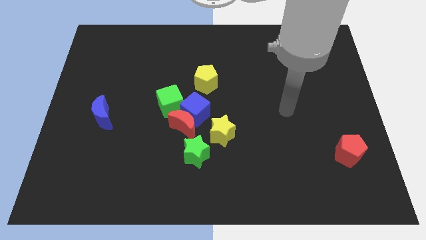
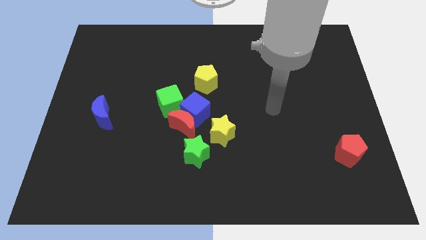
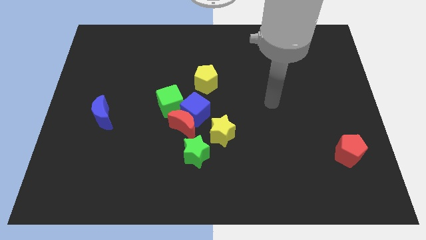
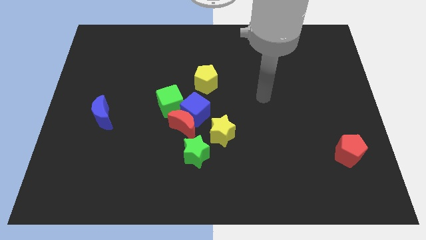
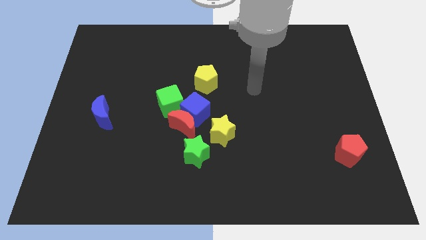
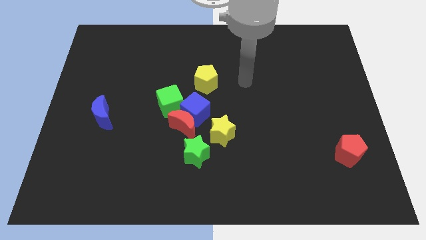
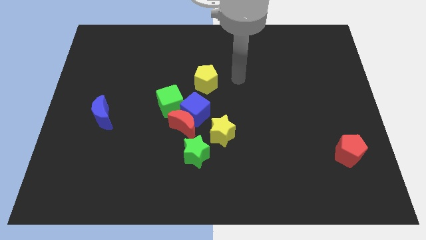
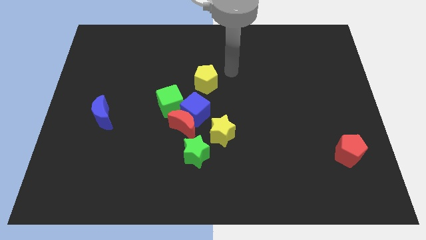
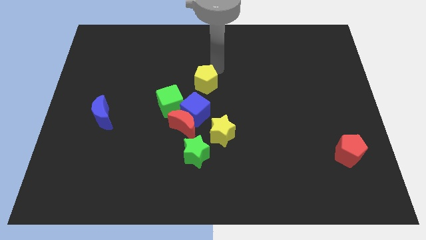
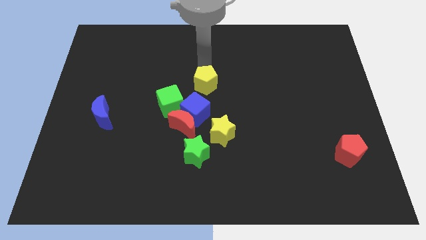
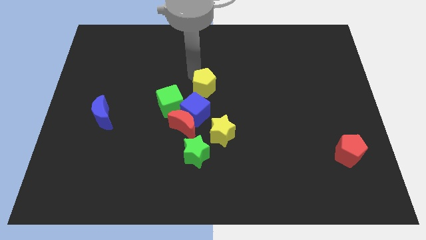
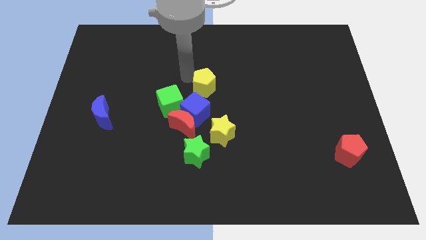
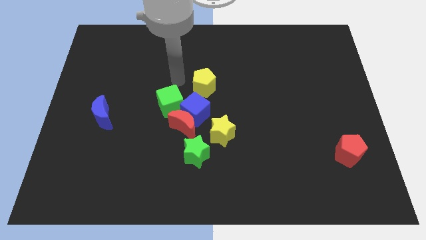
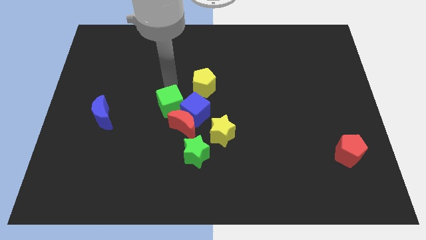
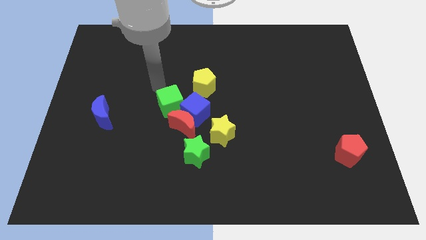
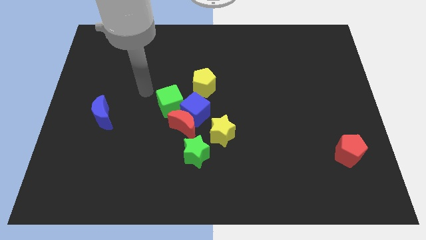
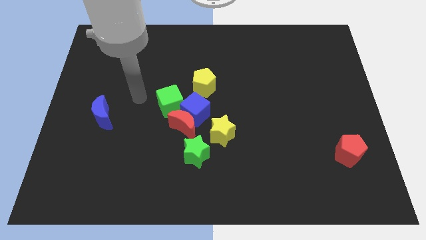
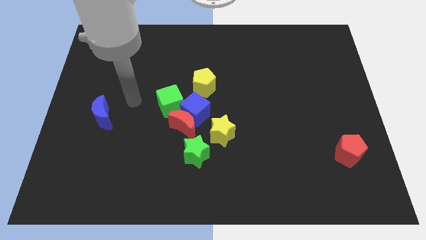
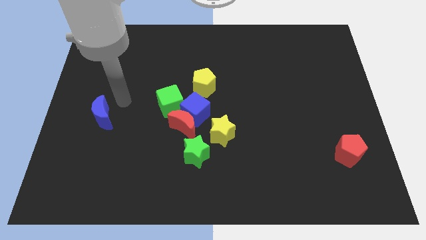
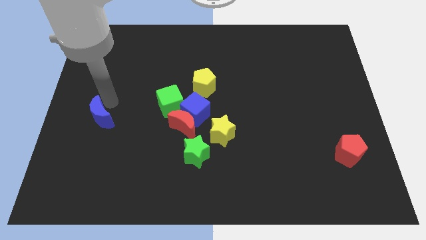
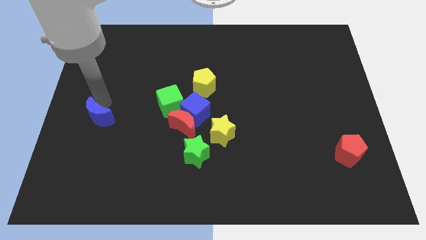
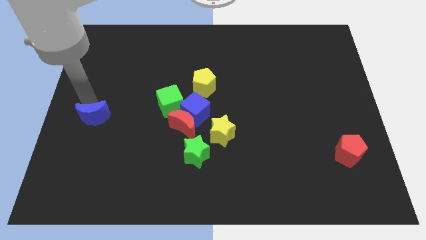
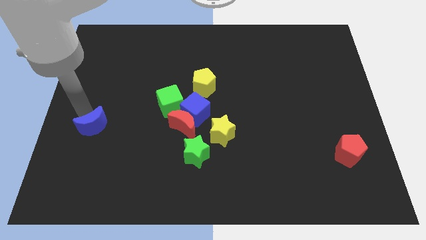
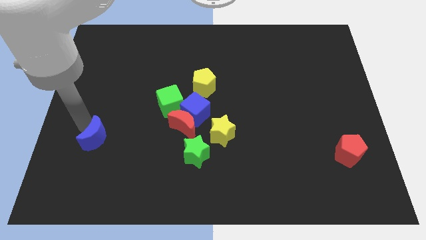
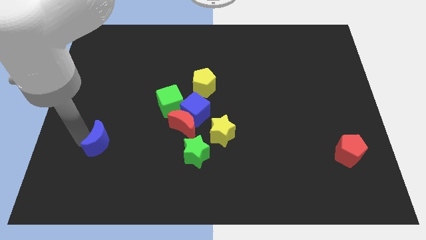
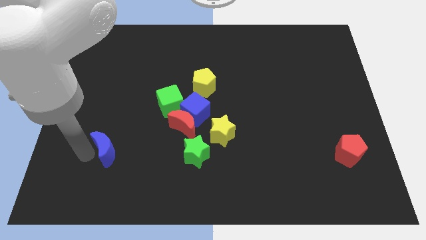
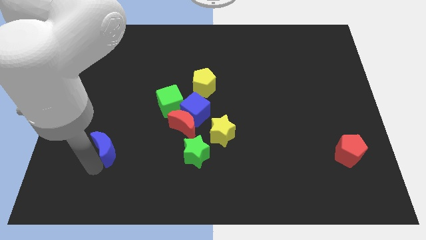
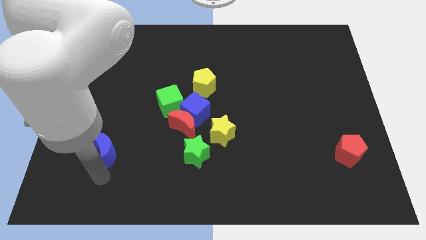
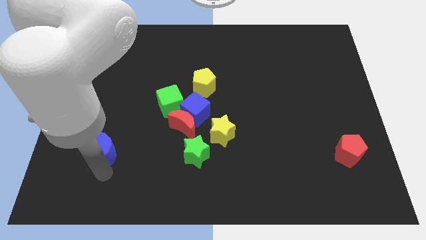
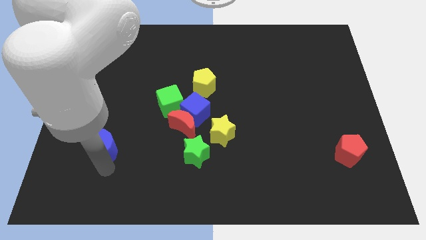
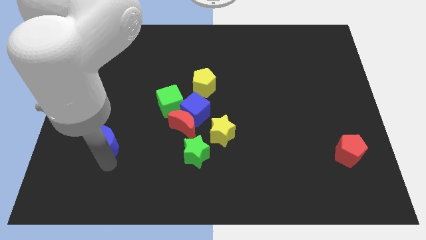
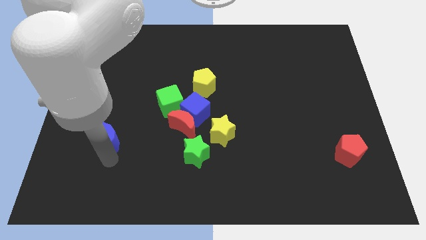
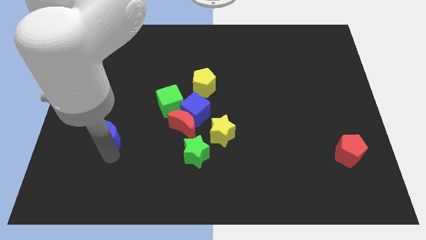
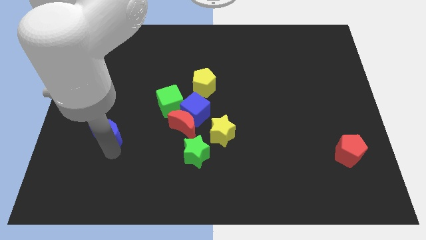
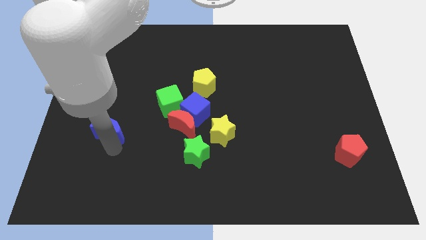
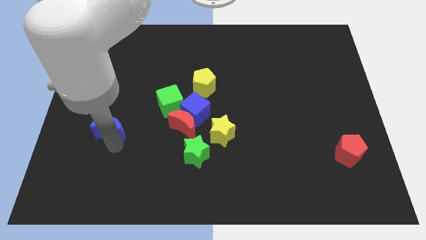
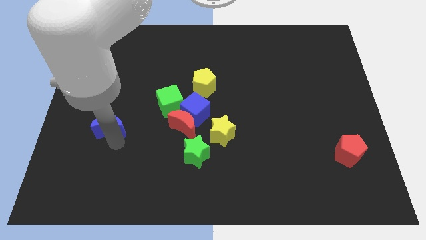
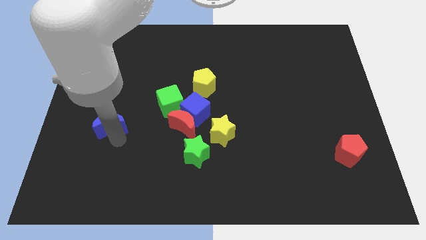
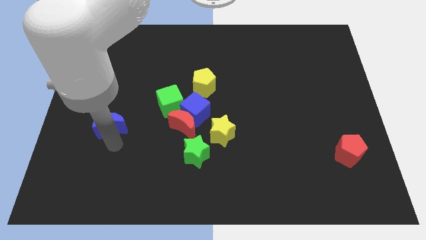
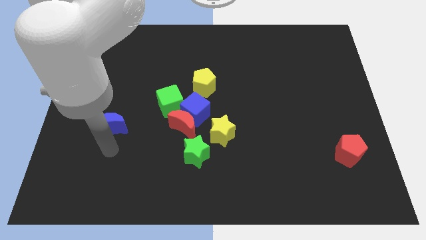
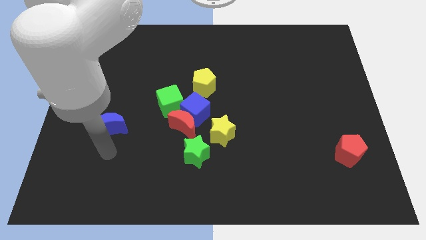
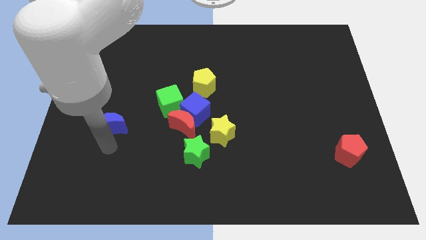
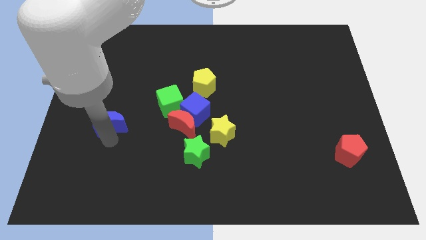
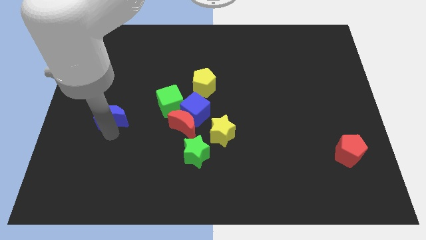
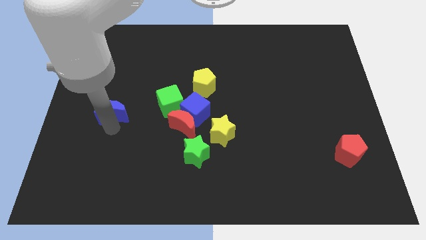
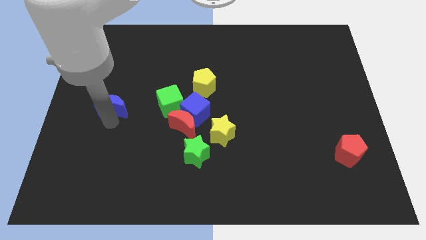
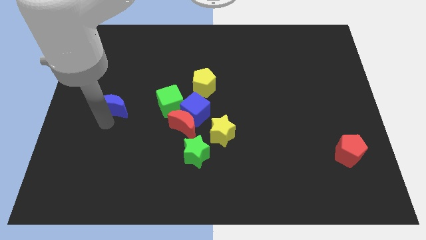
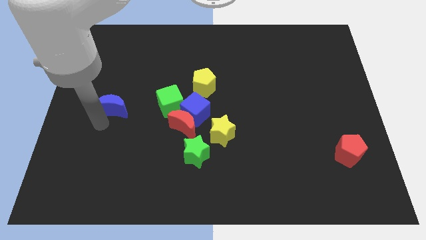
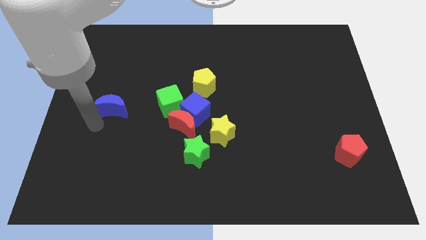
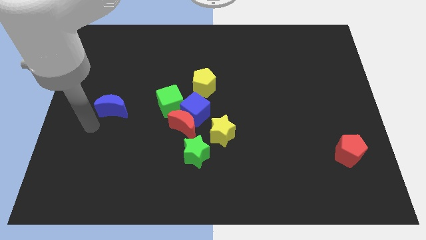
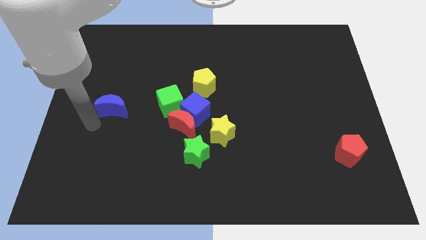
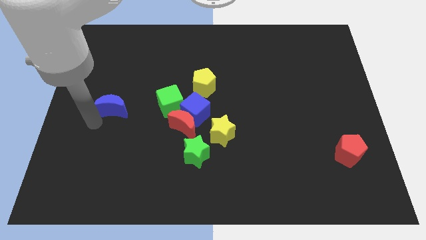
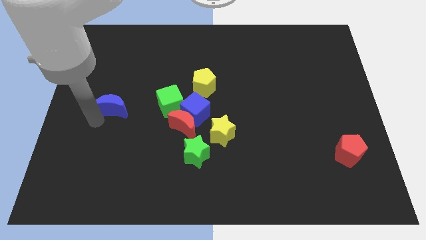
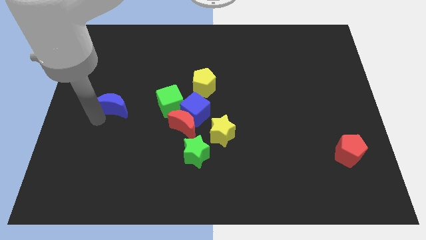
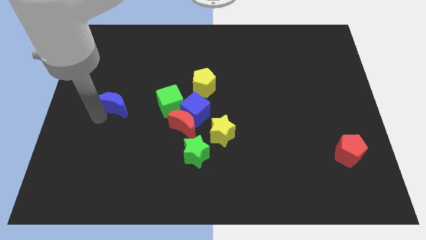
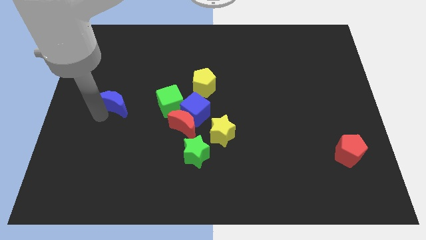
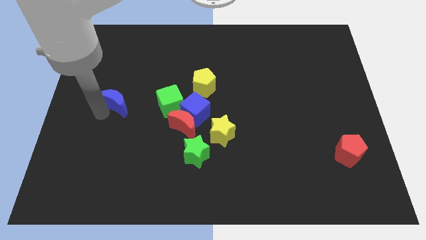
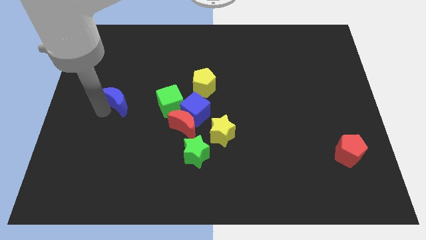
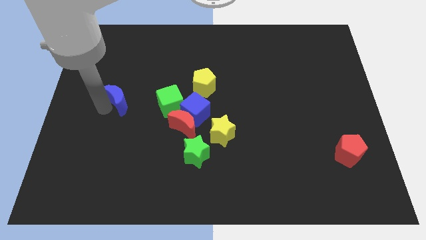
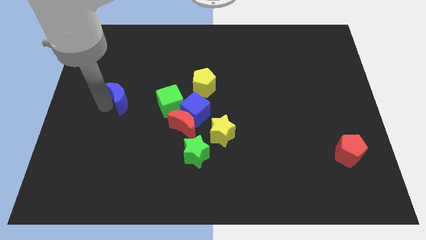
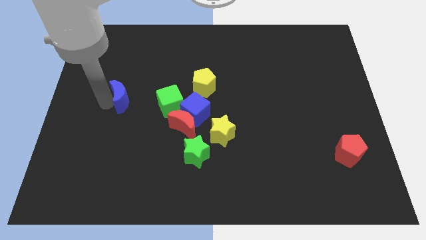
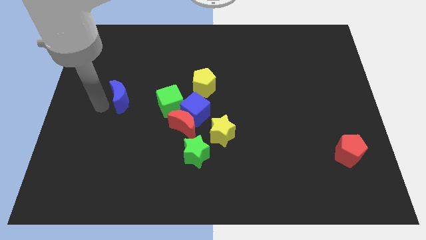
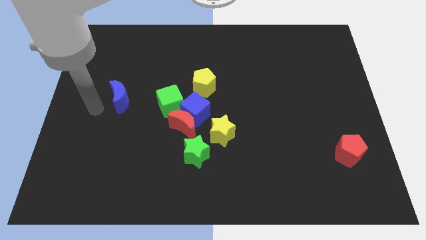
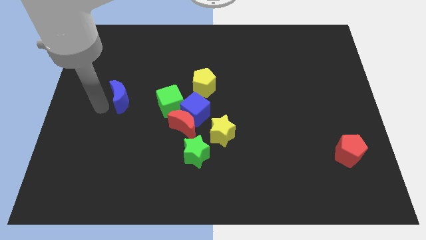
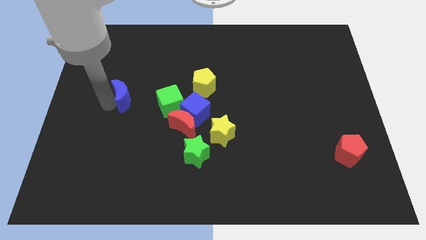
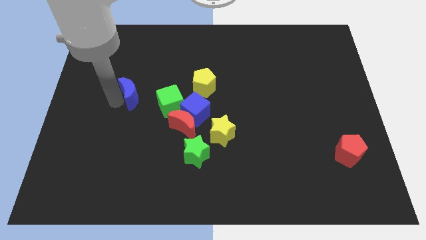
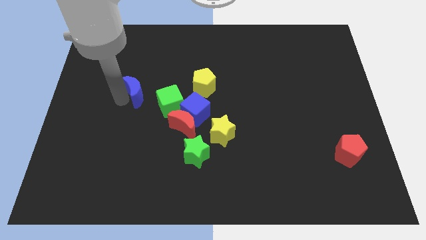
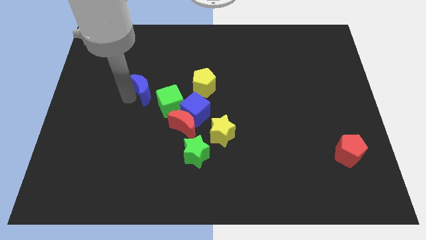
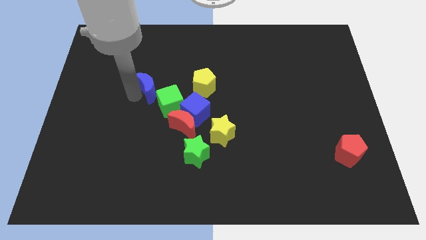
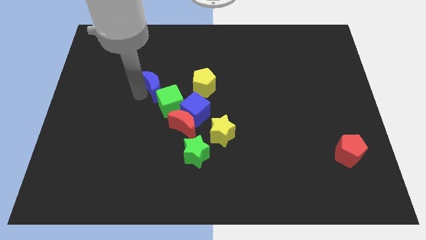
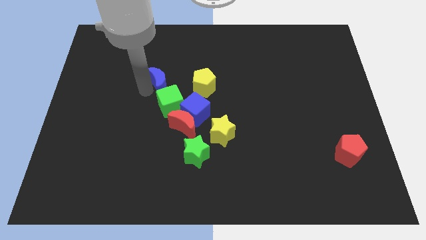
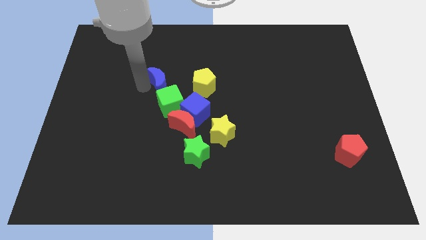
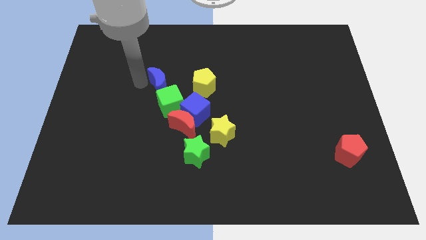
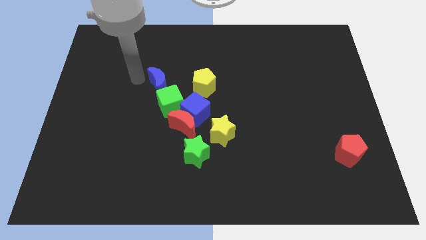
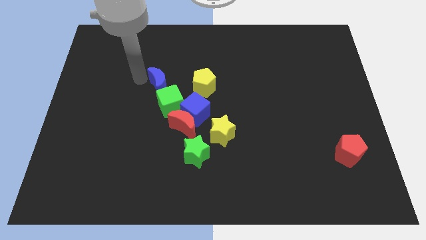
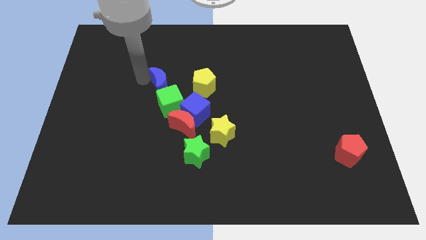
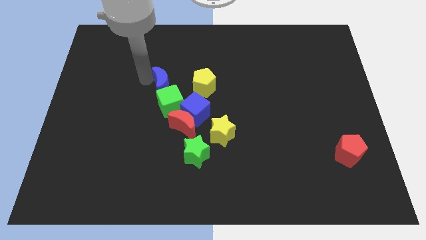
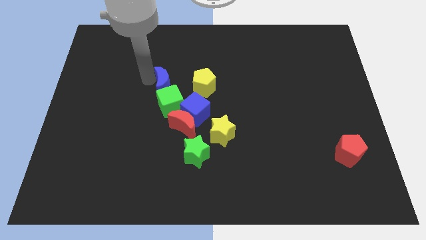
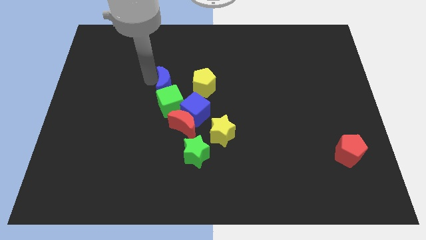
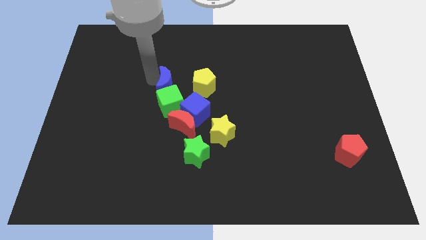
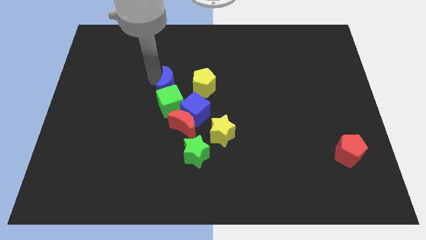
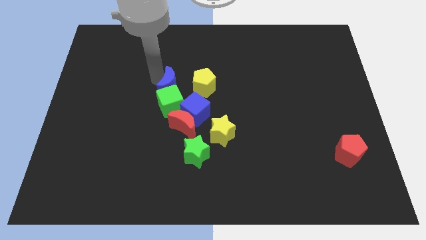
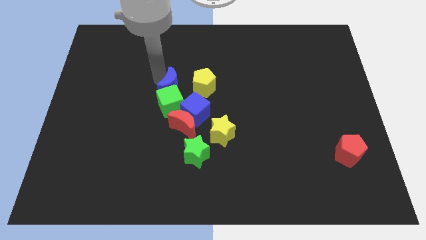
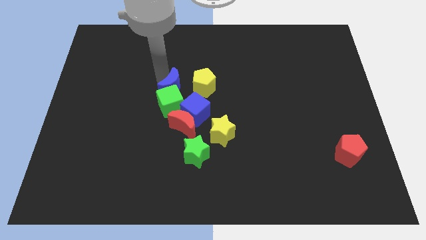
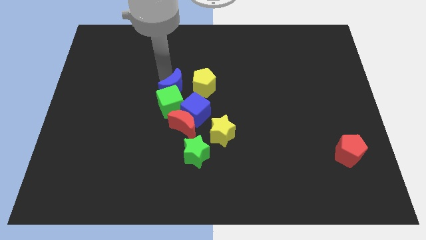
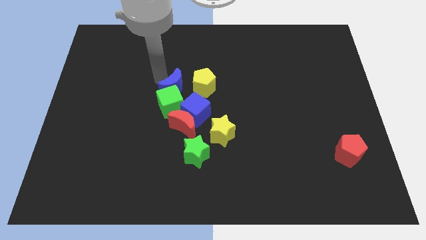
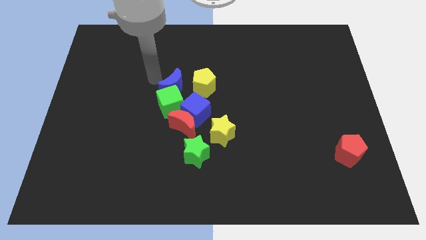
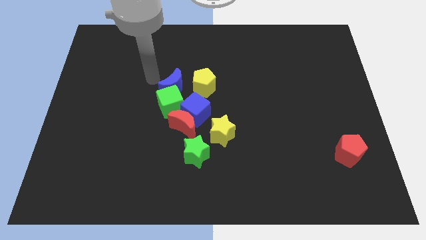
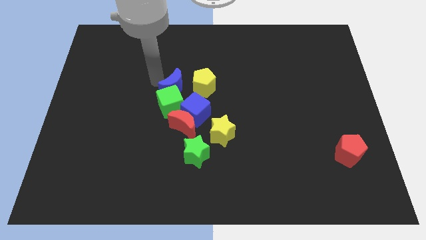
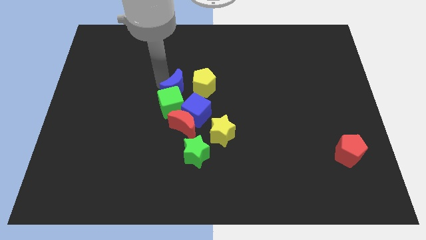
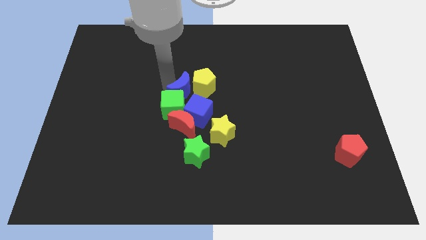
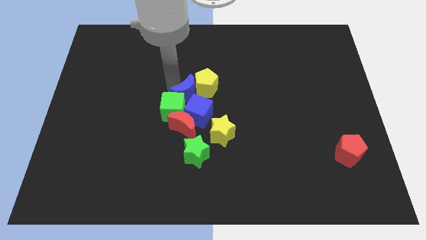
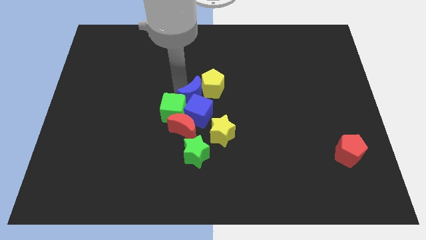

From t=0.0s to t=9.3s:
put the blue moon above the green star
